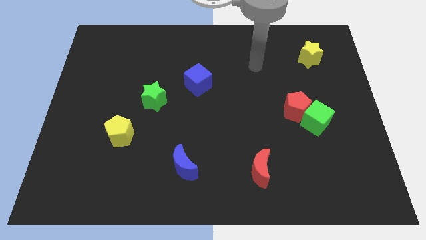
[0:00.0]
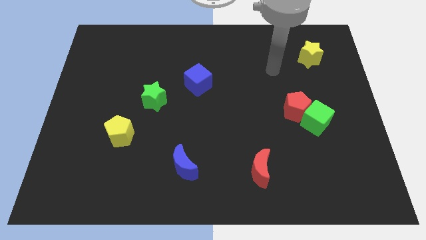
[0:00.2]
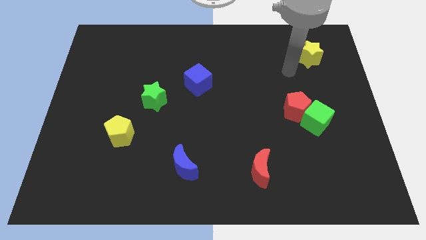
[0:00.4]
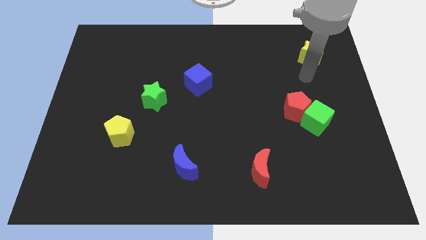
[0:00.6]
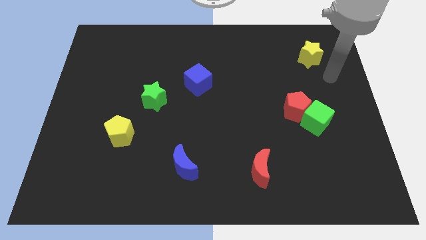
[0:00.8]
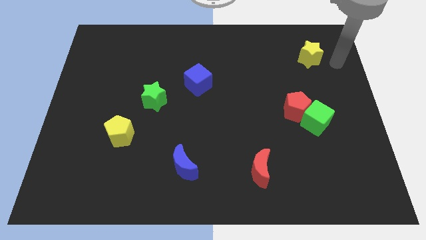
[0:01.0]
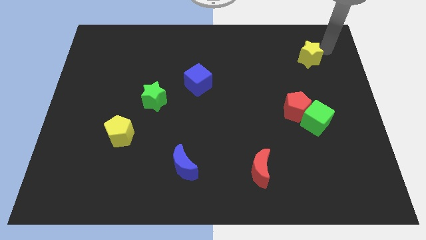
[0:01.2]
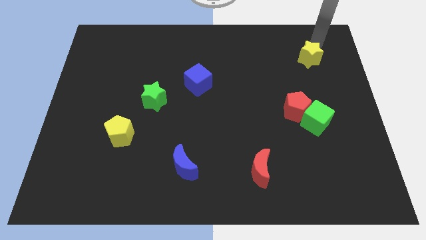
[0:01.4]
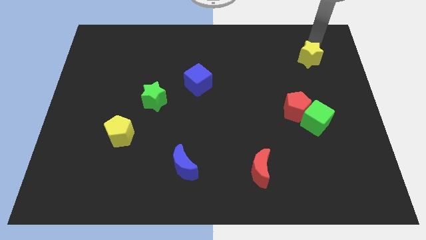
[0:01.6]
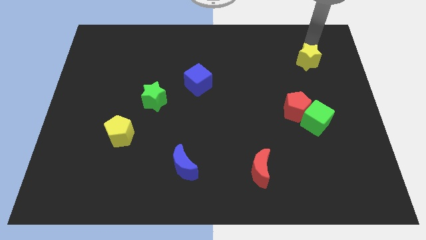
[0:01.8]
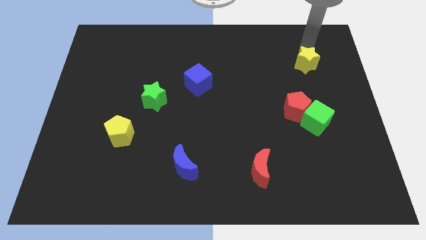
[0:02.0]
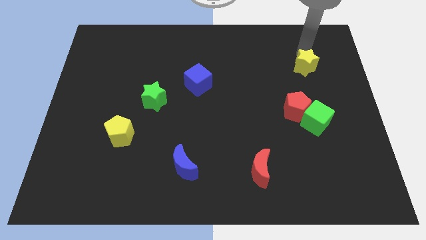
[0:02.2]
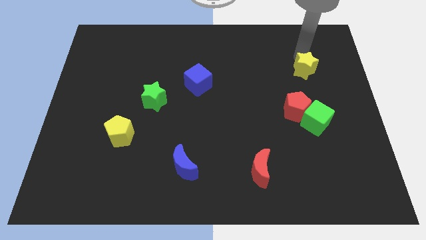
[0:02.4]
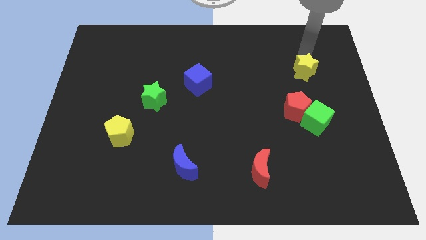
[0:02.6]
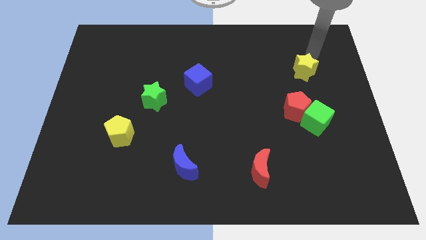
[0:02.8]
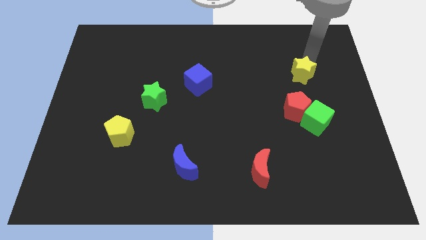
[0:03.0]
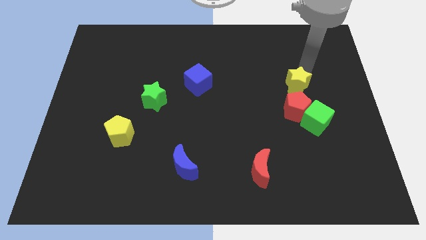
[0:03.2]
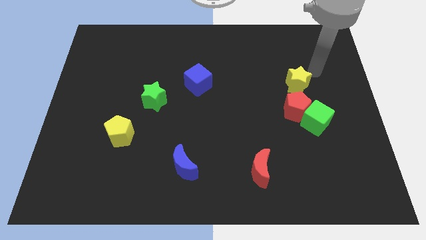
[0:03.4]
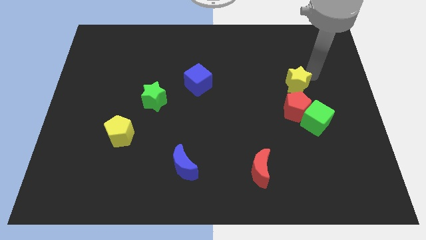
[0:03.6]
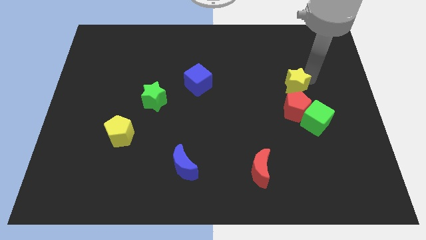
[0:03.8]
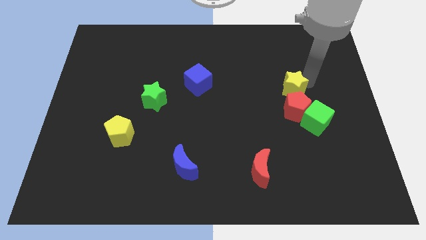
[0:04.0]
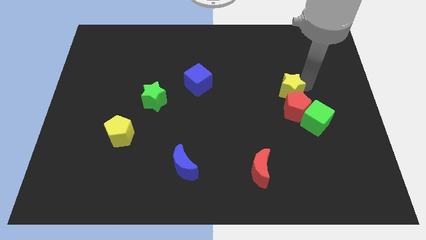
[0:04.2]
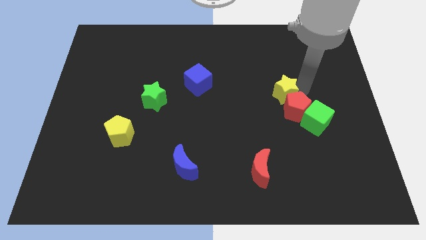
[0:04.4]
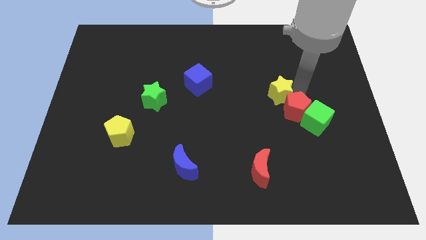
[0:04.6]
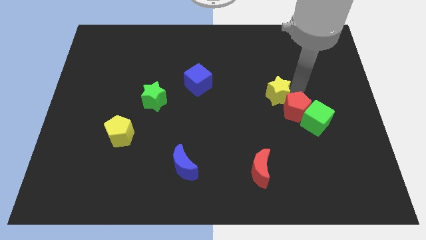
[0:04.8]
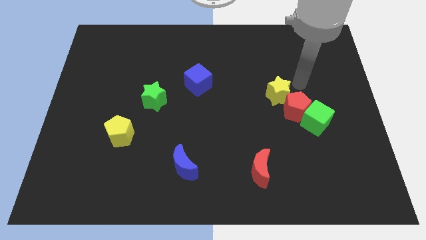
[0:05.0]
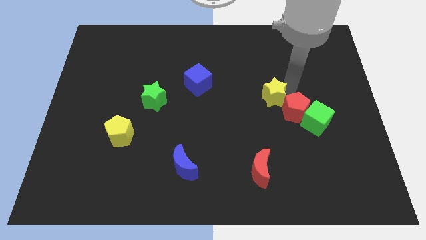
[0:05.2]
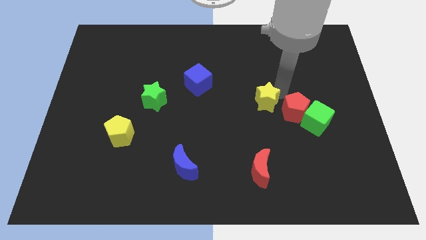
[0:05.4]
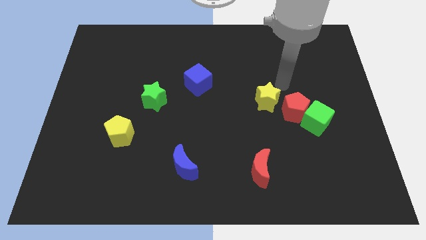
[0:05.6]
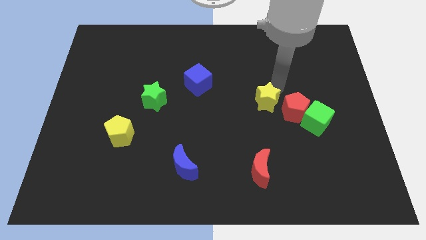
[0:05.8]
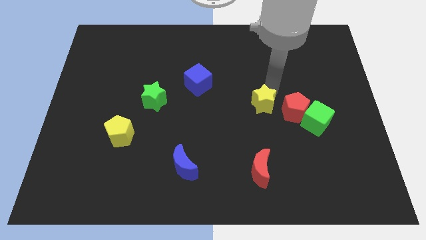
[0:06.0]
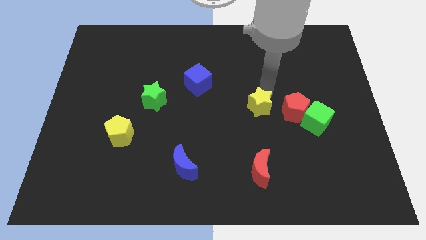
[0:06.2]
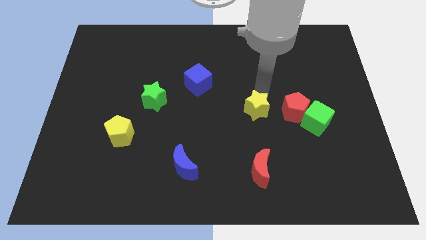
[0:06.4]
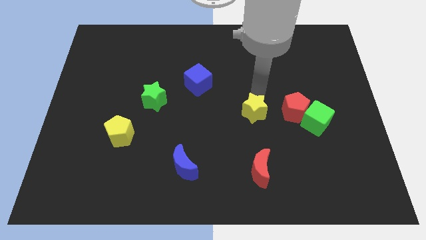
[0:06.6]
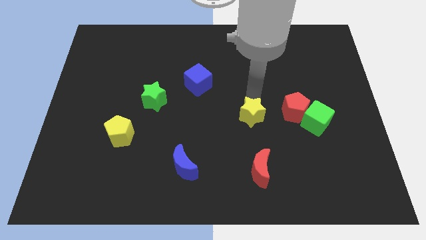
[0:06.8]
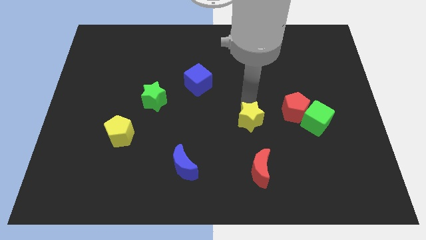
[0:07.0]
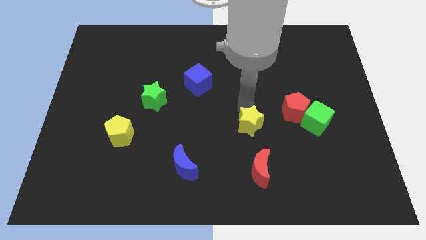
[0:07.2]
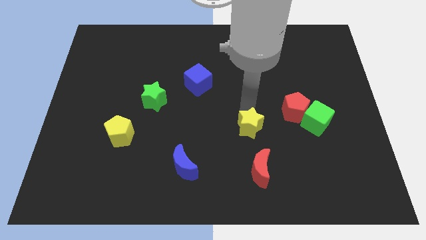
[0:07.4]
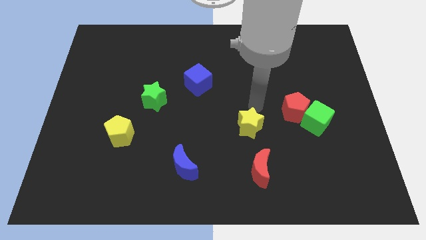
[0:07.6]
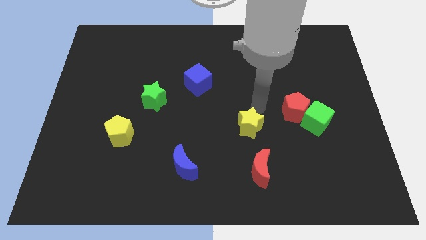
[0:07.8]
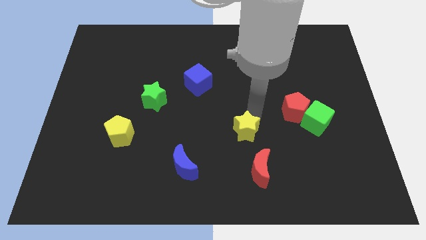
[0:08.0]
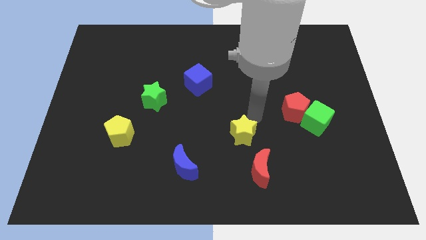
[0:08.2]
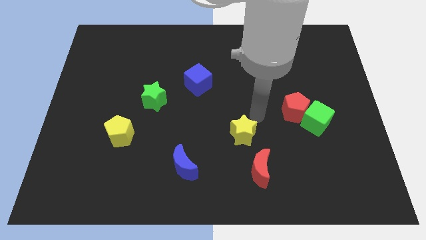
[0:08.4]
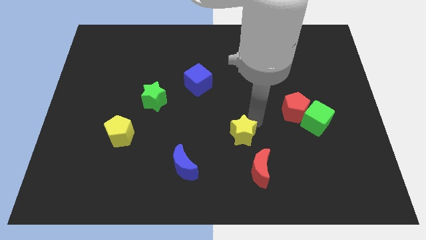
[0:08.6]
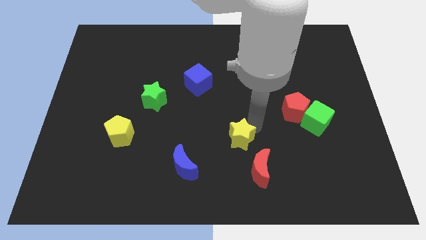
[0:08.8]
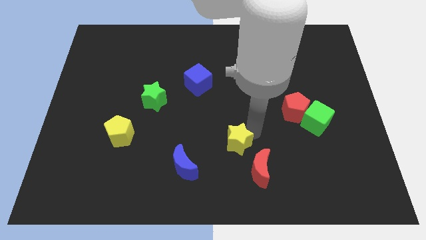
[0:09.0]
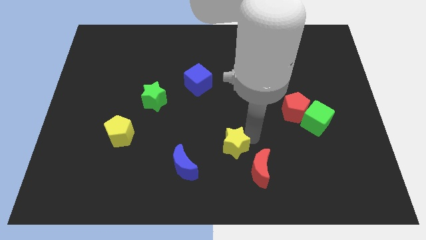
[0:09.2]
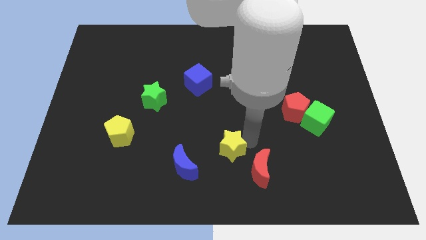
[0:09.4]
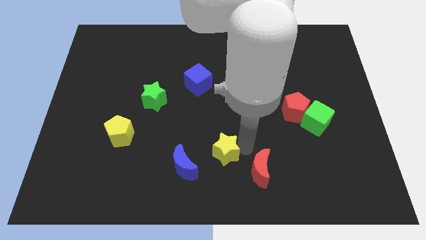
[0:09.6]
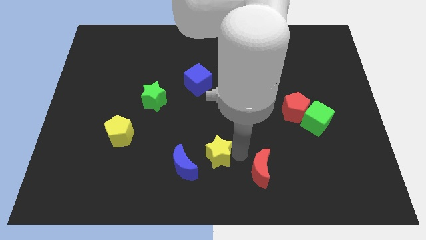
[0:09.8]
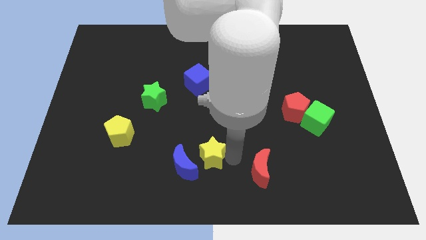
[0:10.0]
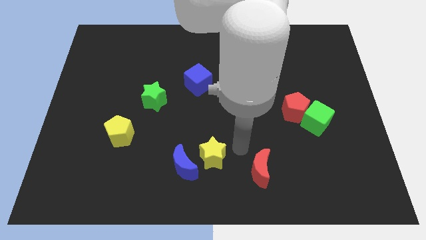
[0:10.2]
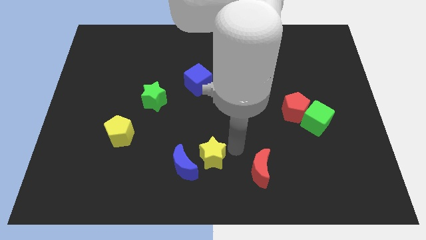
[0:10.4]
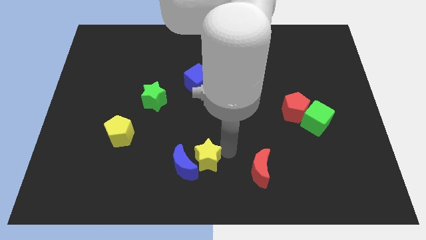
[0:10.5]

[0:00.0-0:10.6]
put the yellow star close to the blue moon

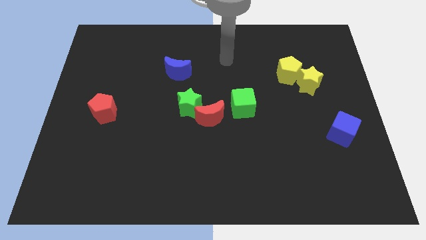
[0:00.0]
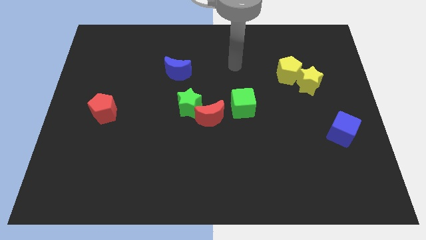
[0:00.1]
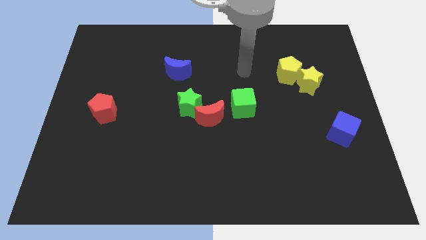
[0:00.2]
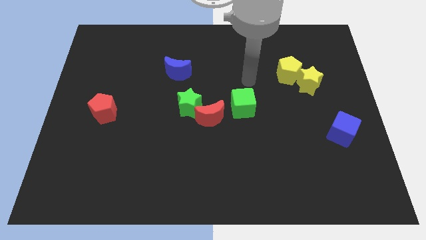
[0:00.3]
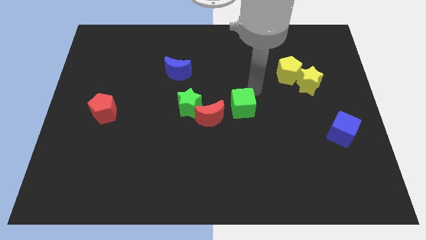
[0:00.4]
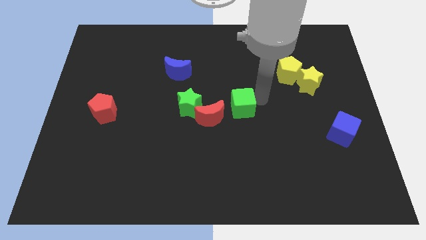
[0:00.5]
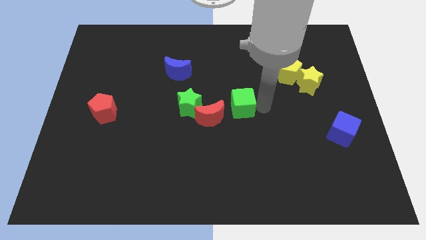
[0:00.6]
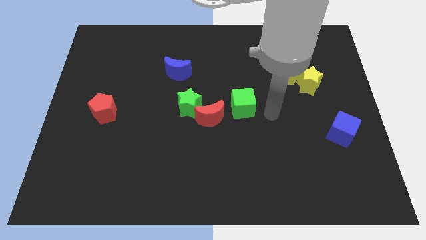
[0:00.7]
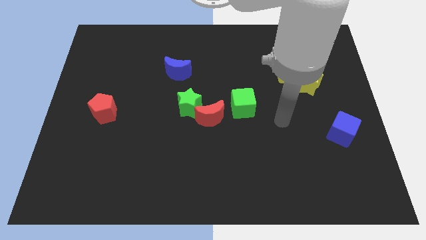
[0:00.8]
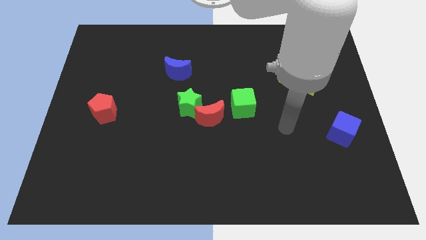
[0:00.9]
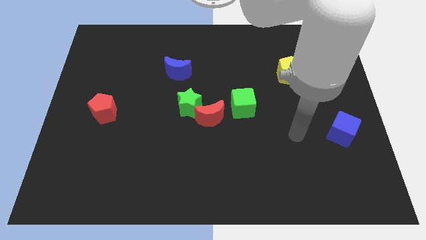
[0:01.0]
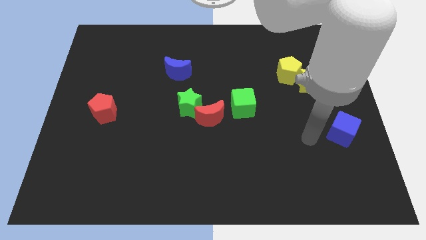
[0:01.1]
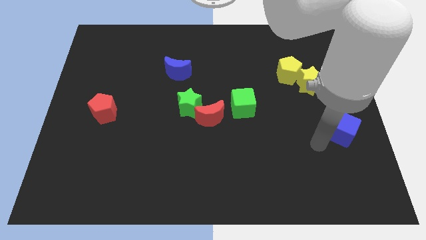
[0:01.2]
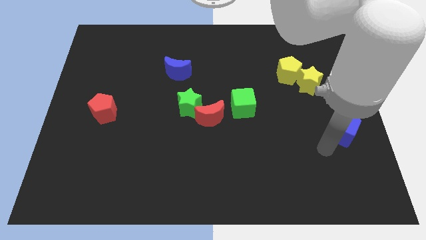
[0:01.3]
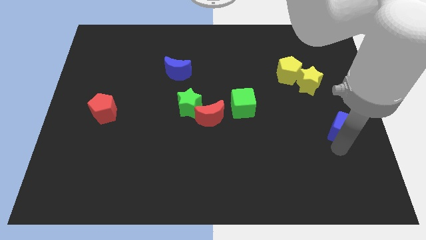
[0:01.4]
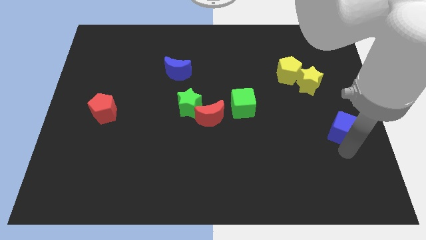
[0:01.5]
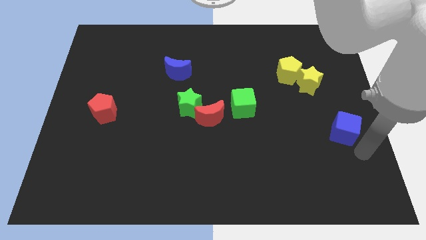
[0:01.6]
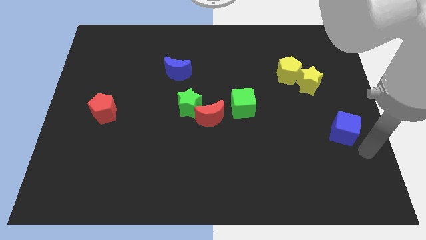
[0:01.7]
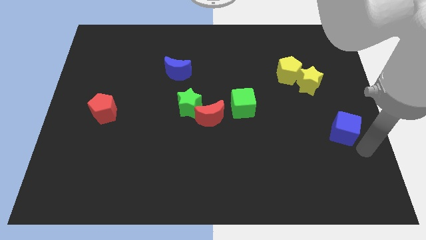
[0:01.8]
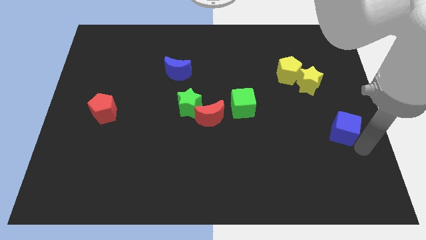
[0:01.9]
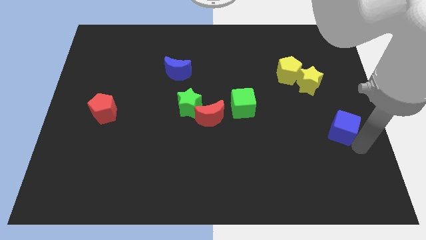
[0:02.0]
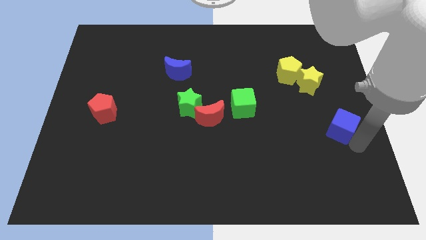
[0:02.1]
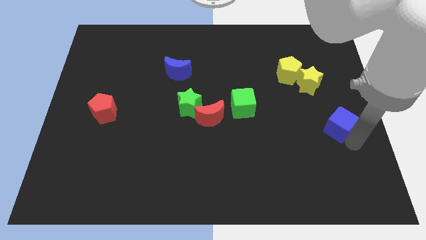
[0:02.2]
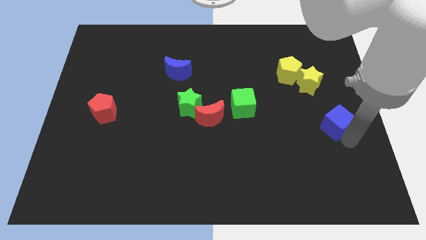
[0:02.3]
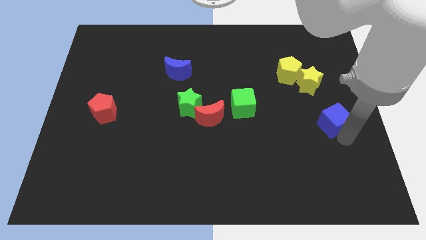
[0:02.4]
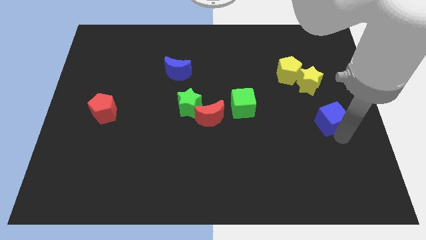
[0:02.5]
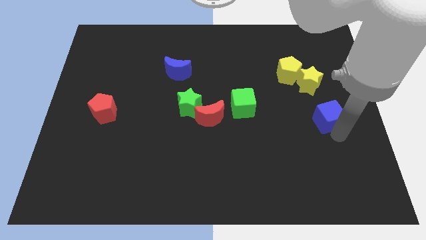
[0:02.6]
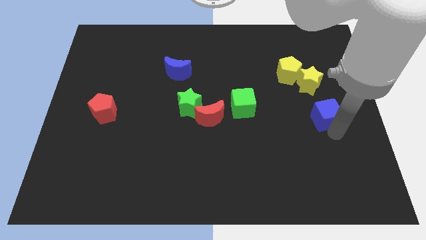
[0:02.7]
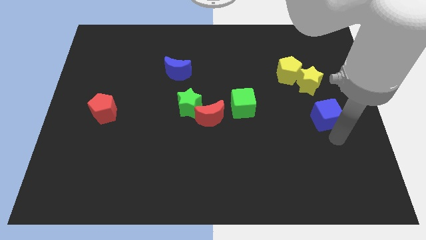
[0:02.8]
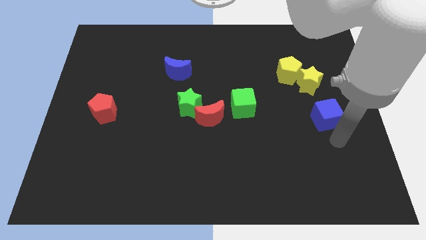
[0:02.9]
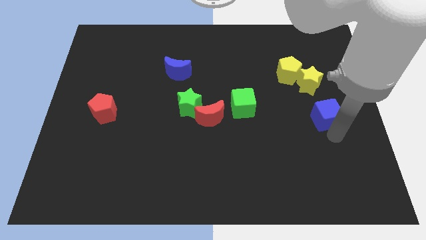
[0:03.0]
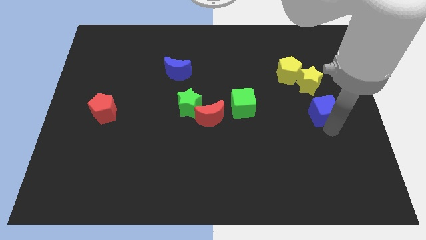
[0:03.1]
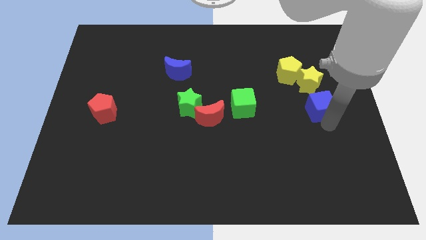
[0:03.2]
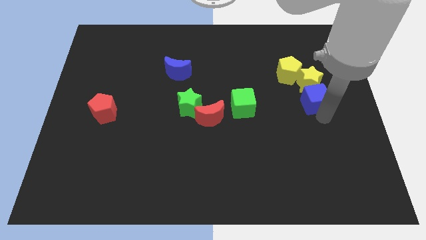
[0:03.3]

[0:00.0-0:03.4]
slide the blue cube towards the yellow star
